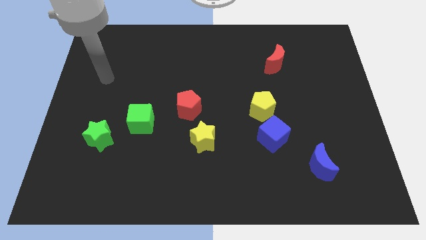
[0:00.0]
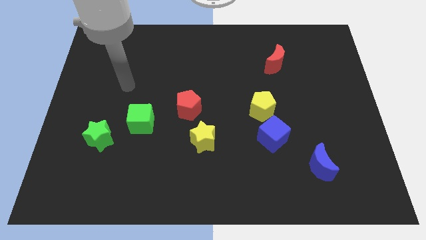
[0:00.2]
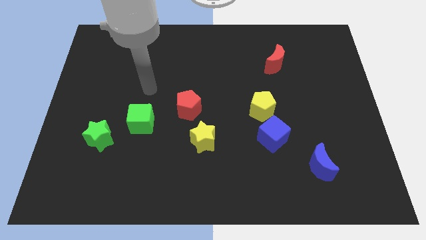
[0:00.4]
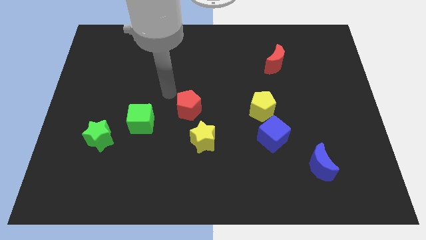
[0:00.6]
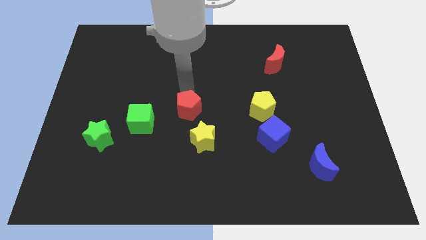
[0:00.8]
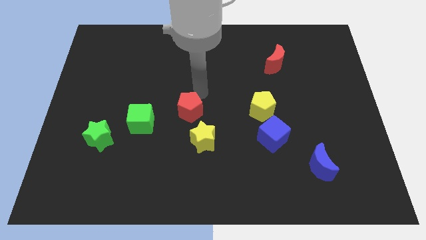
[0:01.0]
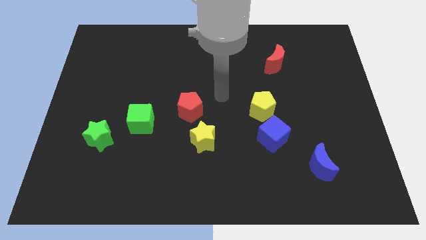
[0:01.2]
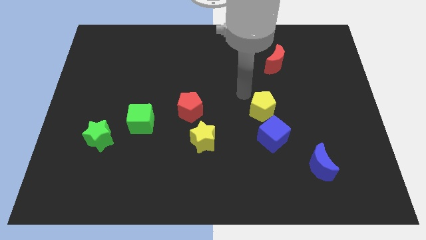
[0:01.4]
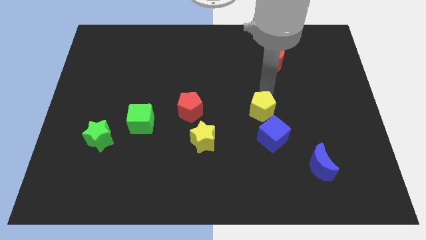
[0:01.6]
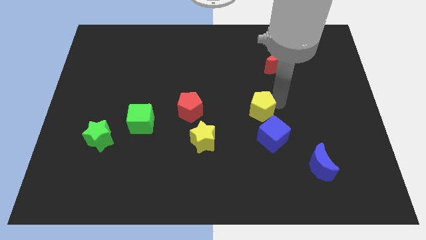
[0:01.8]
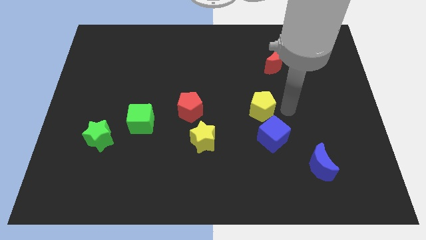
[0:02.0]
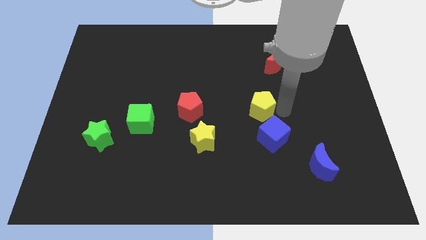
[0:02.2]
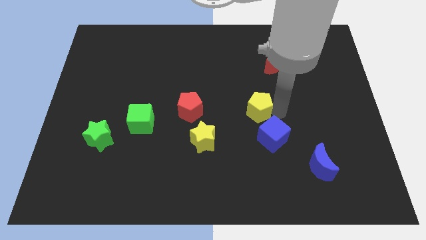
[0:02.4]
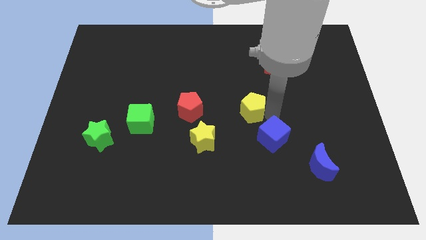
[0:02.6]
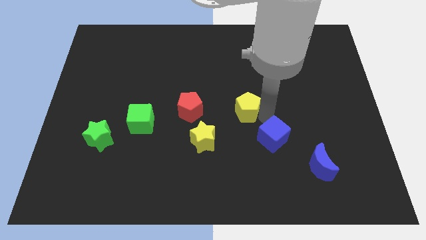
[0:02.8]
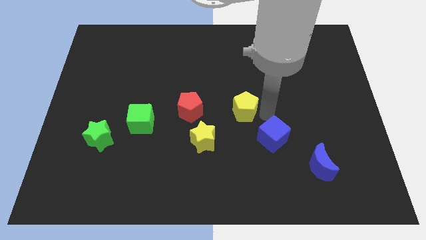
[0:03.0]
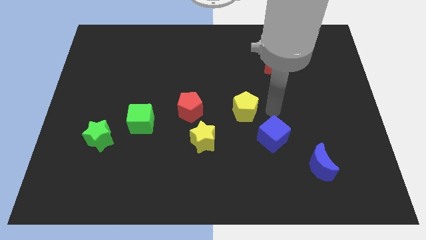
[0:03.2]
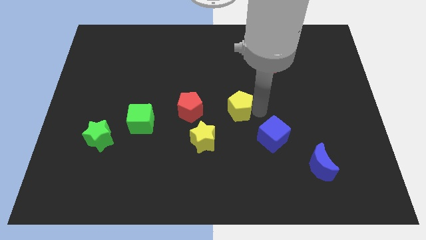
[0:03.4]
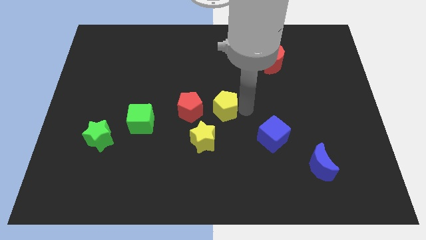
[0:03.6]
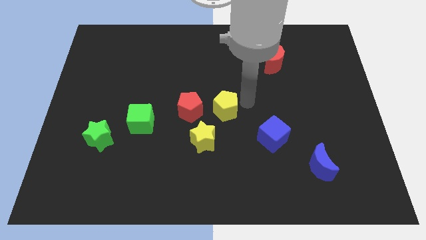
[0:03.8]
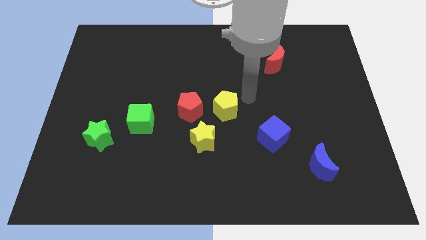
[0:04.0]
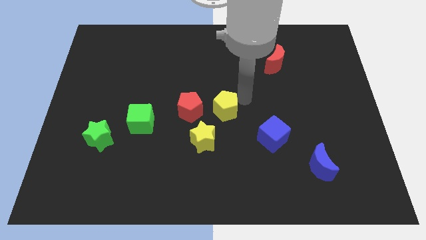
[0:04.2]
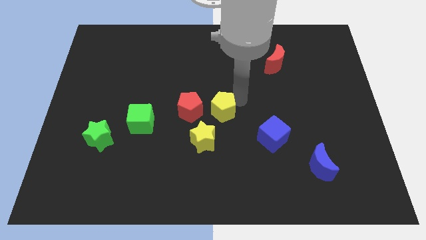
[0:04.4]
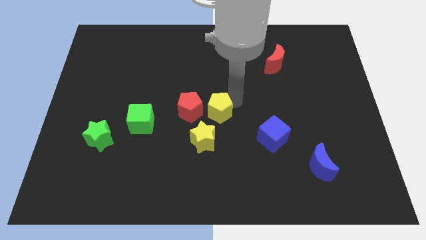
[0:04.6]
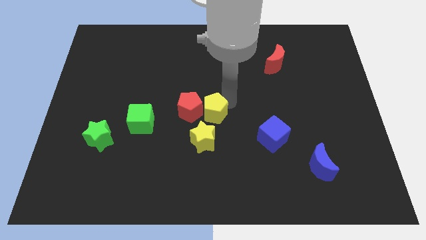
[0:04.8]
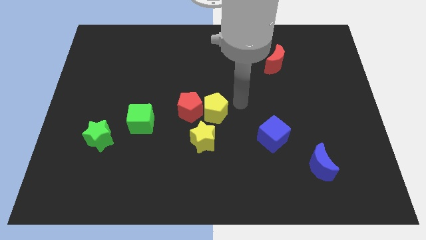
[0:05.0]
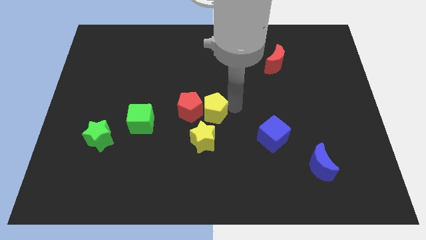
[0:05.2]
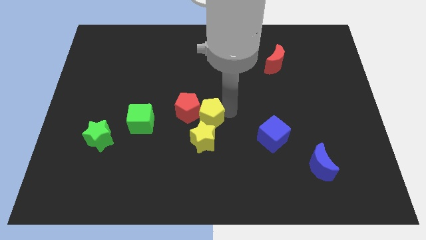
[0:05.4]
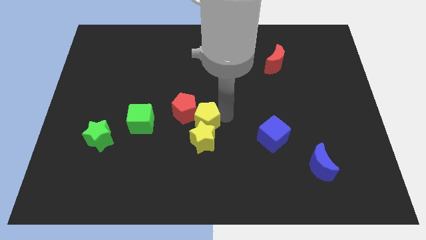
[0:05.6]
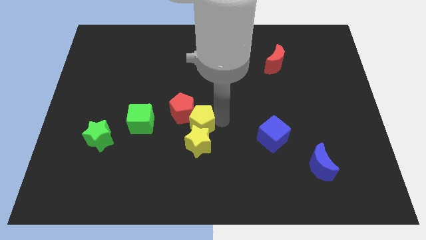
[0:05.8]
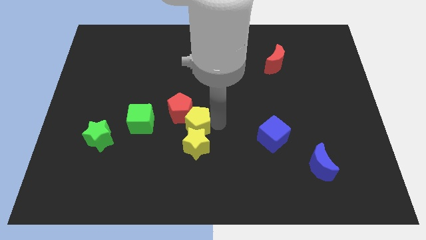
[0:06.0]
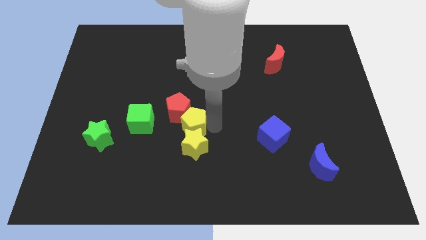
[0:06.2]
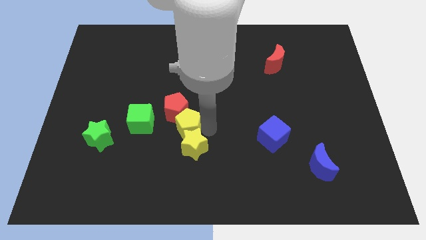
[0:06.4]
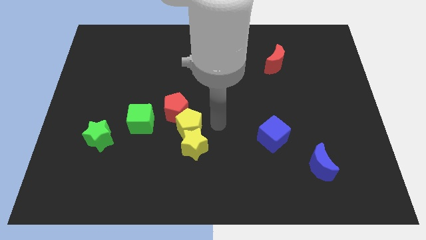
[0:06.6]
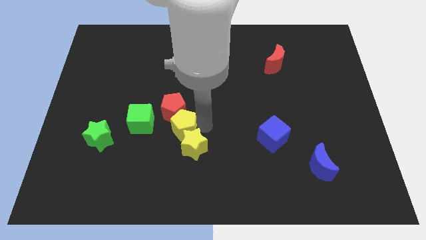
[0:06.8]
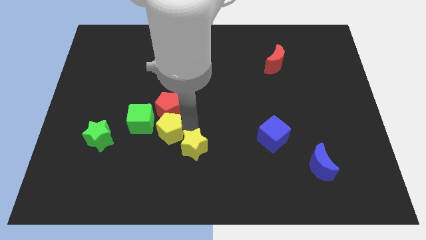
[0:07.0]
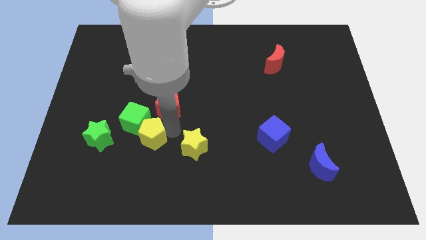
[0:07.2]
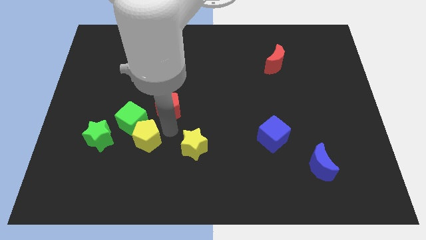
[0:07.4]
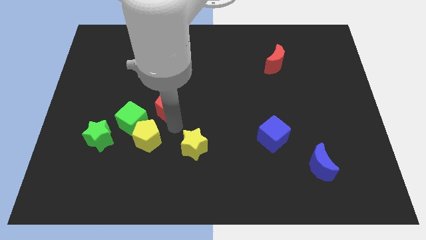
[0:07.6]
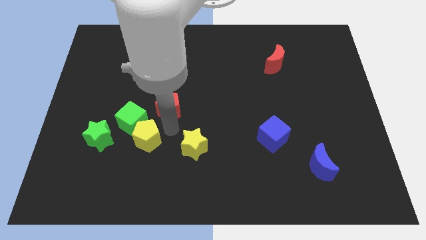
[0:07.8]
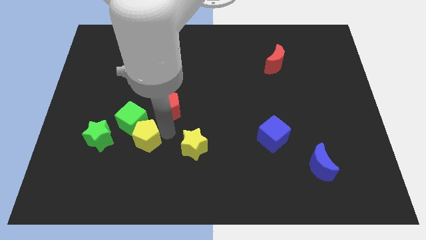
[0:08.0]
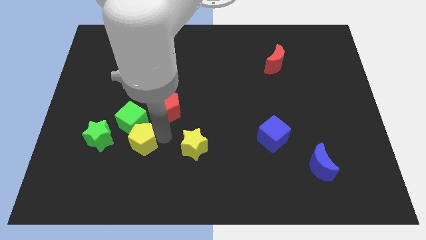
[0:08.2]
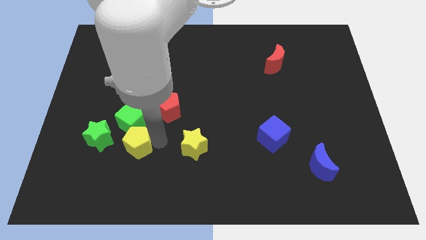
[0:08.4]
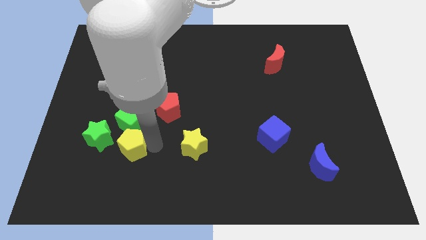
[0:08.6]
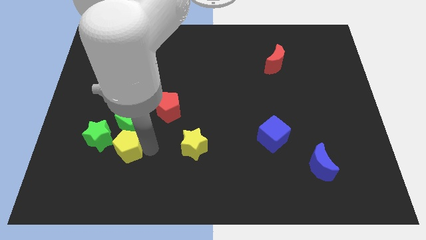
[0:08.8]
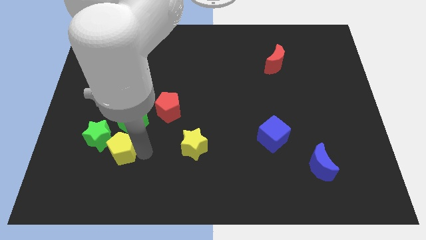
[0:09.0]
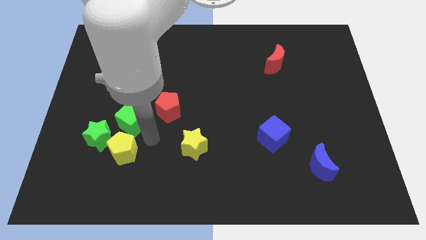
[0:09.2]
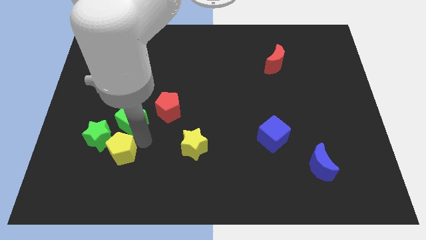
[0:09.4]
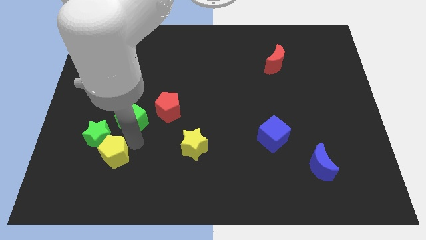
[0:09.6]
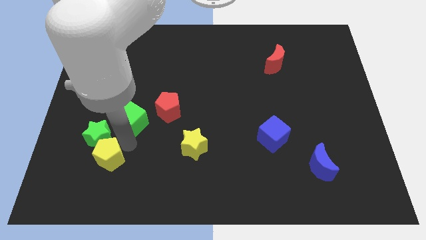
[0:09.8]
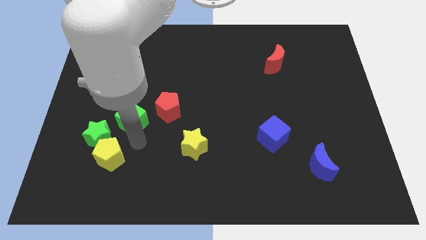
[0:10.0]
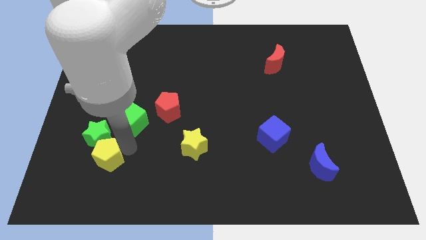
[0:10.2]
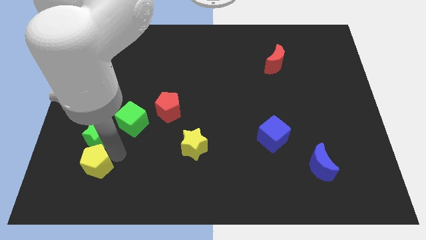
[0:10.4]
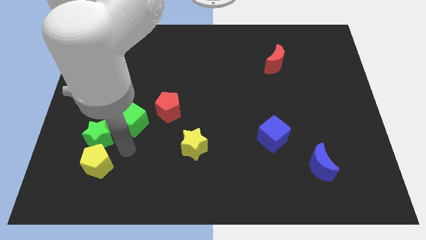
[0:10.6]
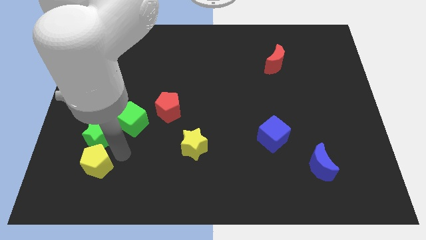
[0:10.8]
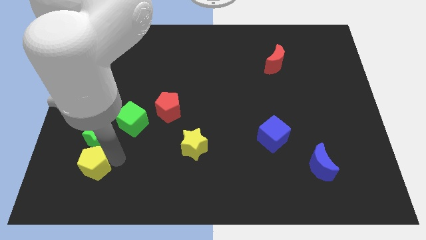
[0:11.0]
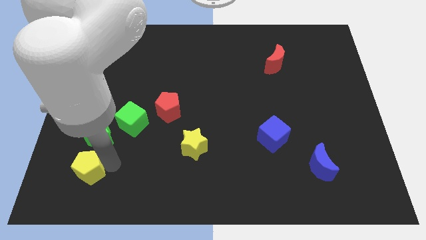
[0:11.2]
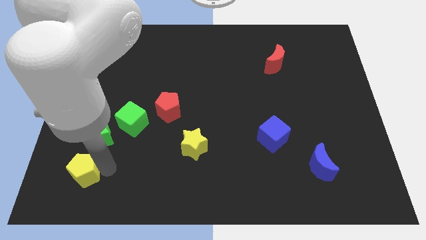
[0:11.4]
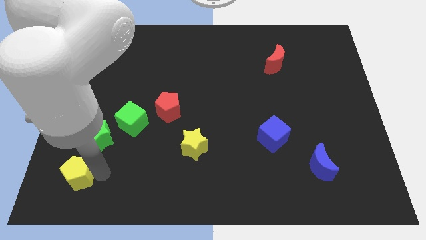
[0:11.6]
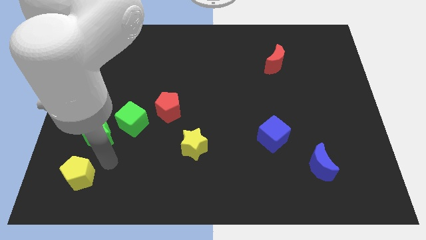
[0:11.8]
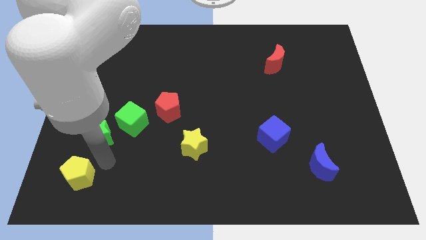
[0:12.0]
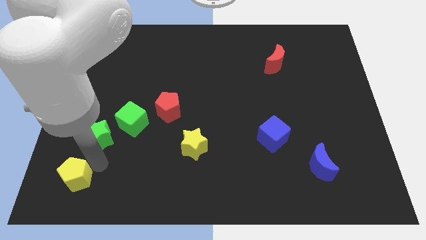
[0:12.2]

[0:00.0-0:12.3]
slide the yellow pentagon to the bottom left
